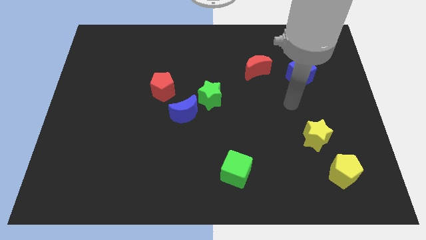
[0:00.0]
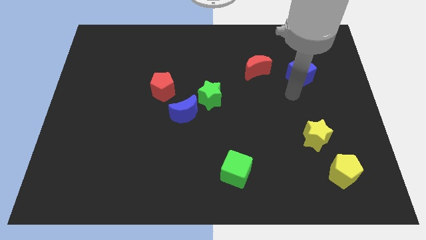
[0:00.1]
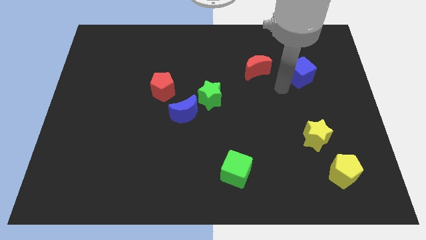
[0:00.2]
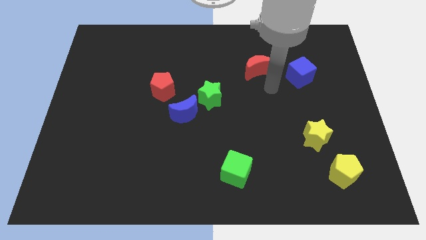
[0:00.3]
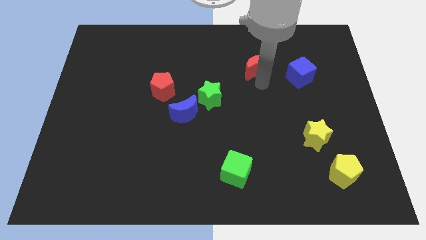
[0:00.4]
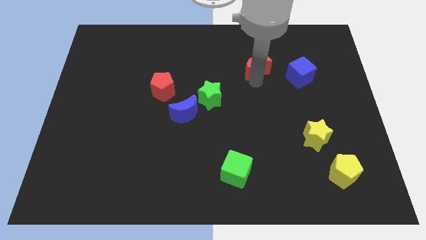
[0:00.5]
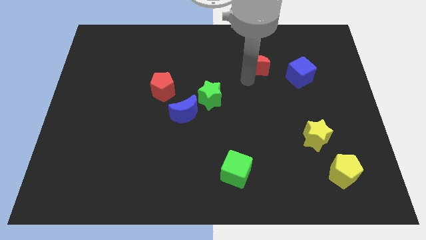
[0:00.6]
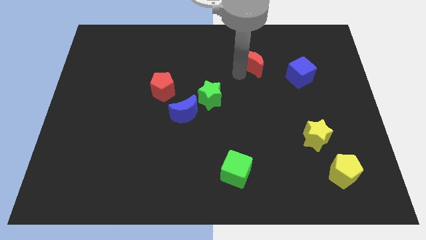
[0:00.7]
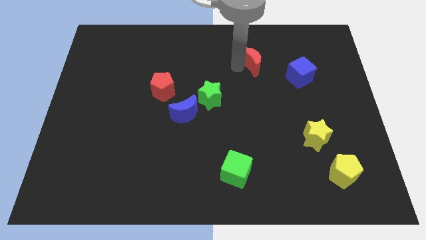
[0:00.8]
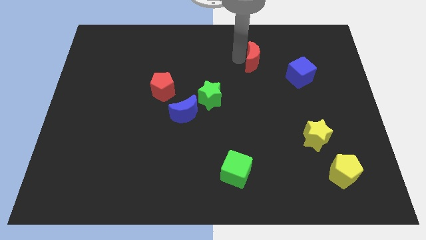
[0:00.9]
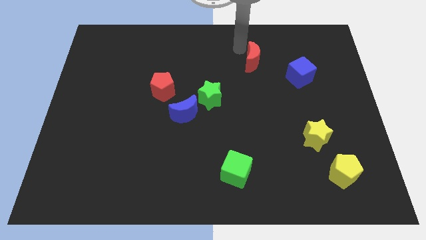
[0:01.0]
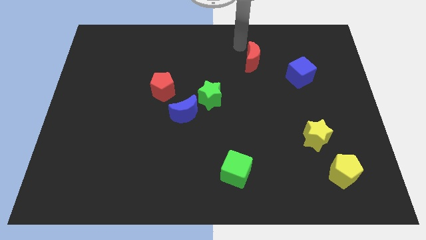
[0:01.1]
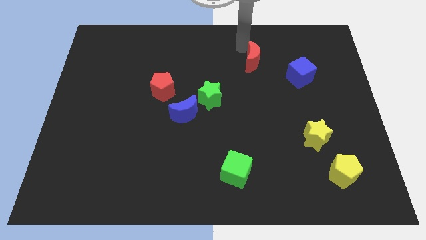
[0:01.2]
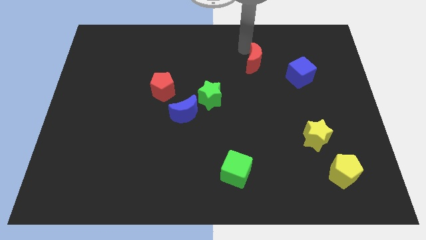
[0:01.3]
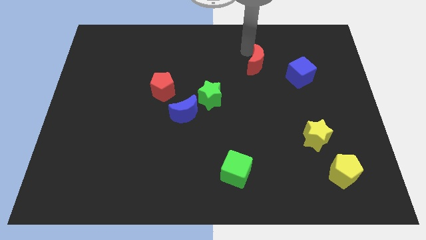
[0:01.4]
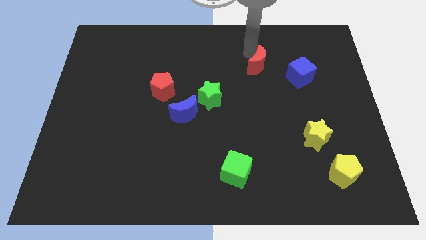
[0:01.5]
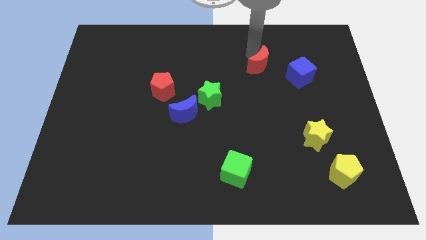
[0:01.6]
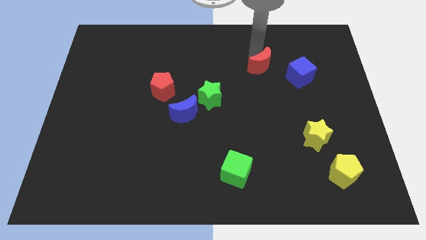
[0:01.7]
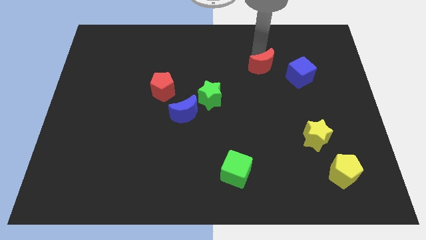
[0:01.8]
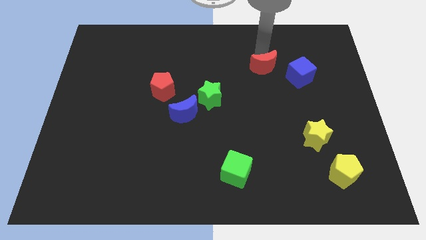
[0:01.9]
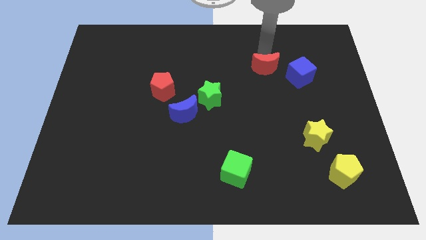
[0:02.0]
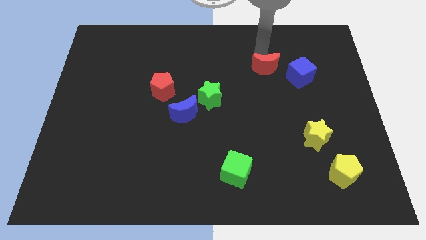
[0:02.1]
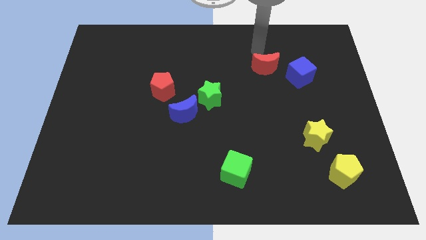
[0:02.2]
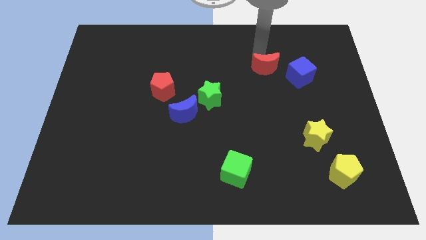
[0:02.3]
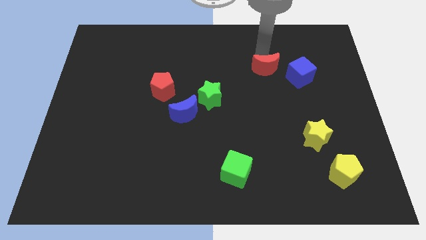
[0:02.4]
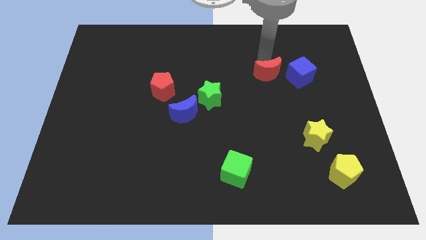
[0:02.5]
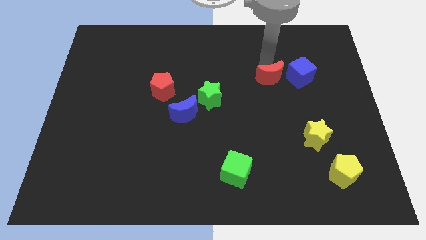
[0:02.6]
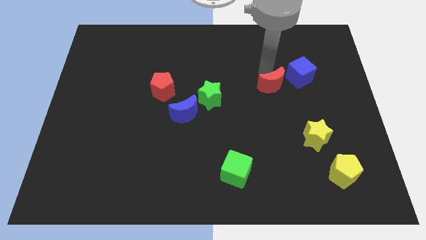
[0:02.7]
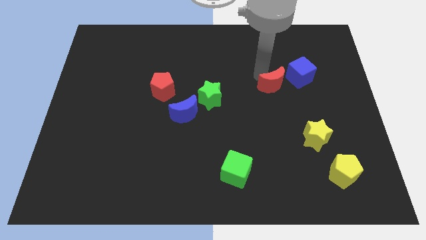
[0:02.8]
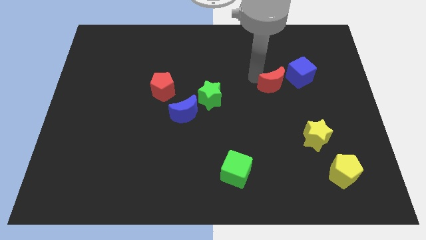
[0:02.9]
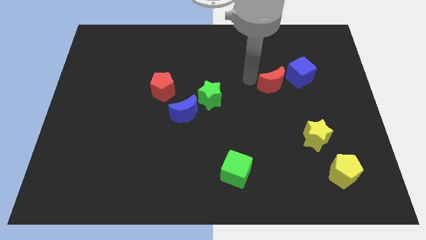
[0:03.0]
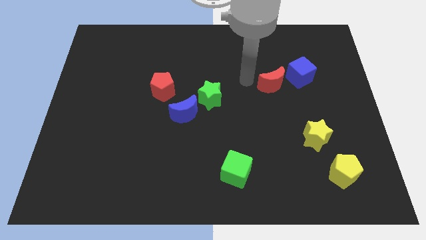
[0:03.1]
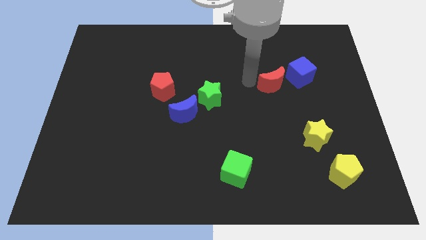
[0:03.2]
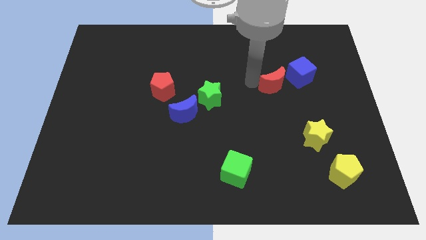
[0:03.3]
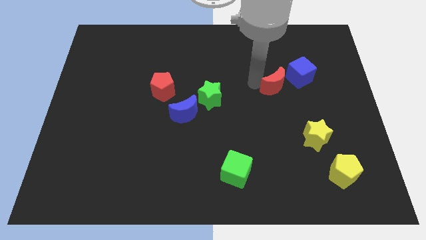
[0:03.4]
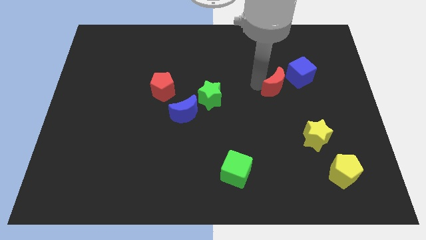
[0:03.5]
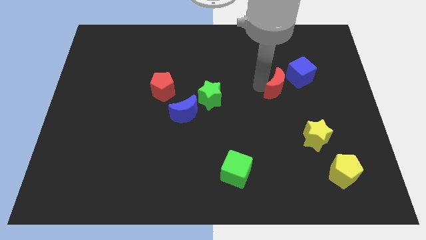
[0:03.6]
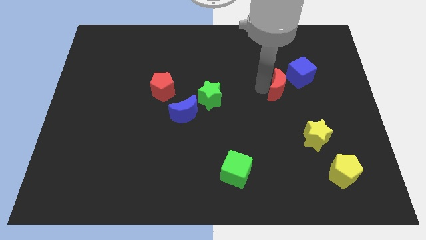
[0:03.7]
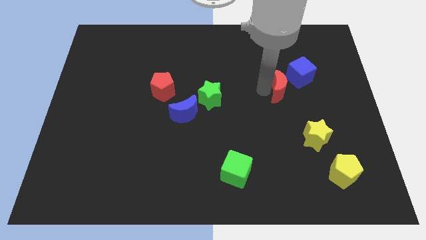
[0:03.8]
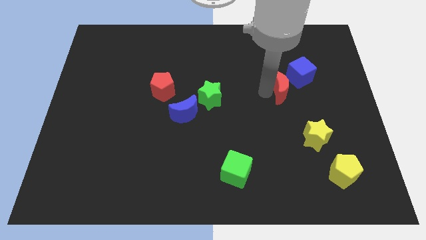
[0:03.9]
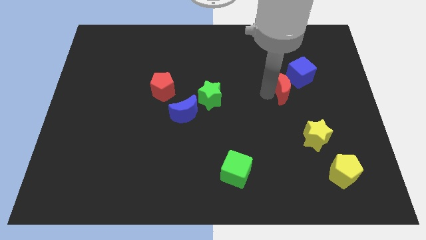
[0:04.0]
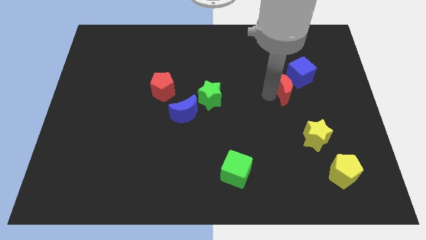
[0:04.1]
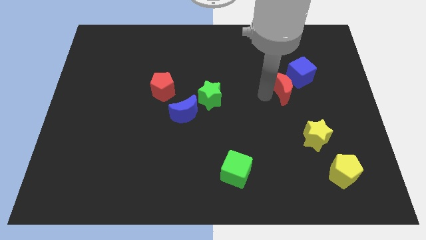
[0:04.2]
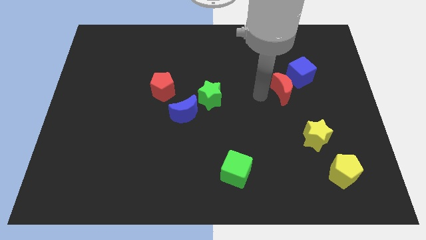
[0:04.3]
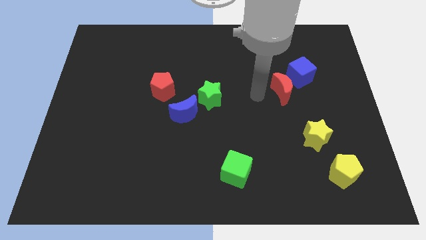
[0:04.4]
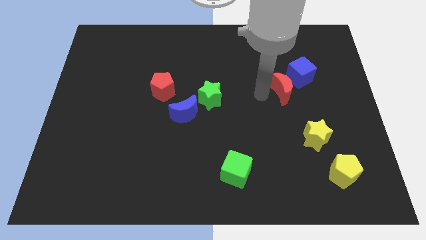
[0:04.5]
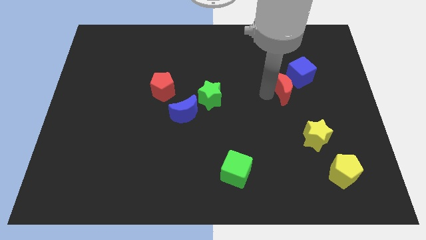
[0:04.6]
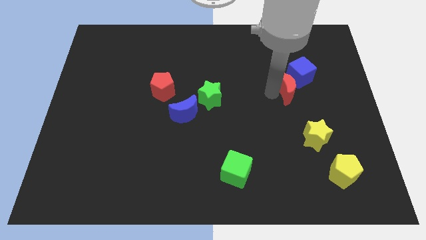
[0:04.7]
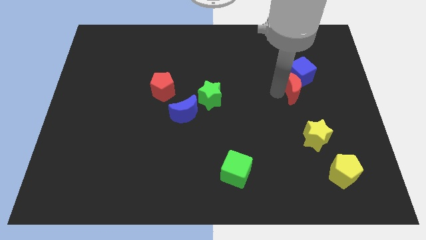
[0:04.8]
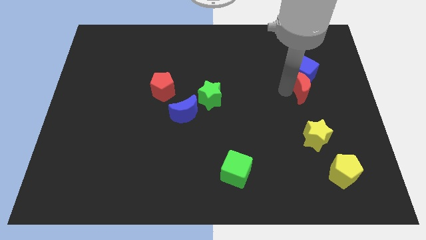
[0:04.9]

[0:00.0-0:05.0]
put the red moon to the bottom right side of the blue cube

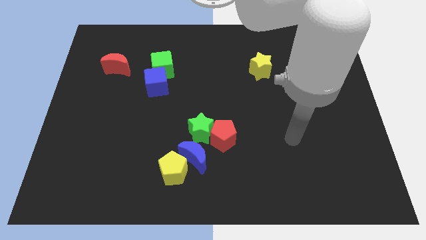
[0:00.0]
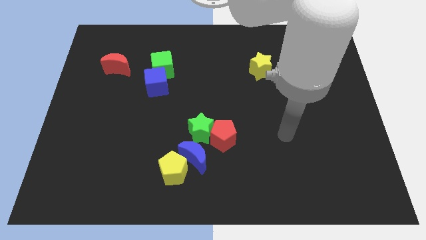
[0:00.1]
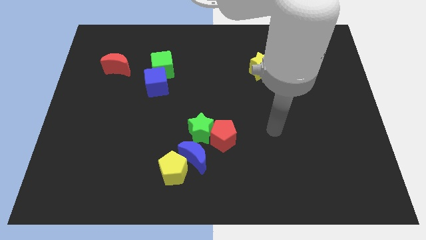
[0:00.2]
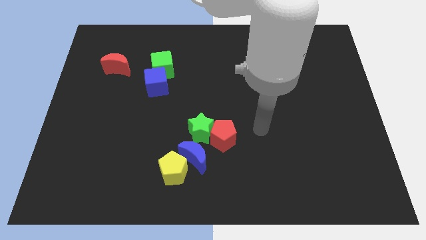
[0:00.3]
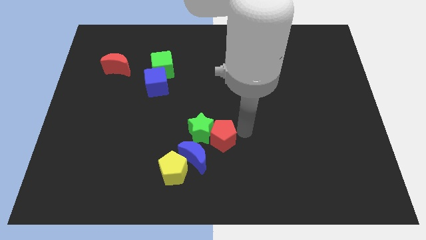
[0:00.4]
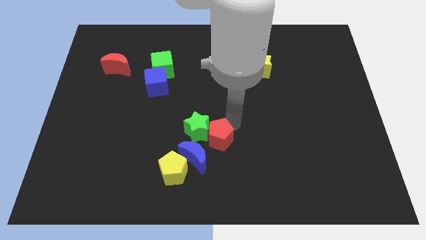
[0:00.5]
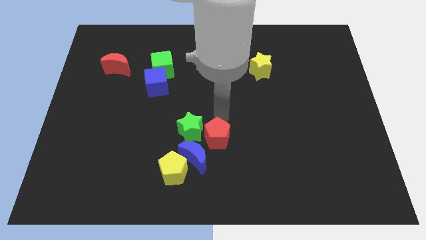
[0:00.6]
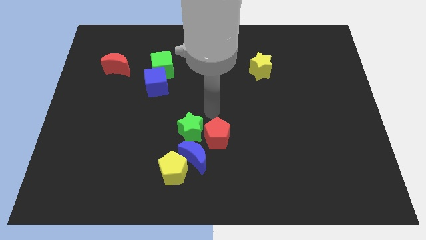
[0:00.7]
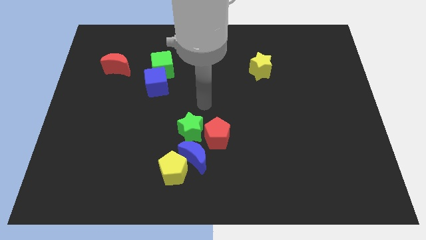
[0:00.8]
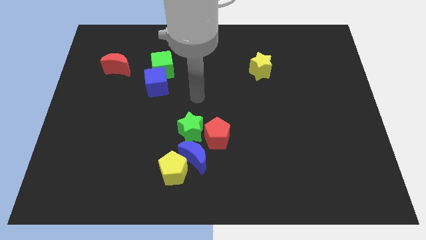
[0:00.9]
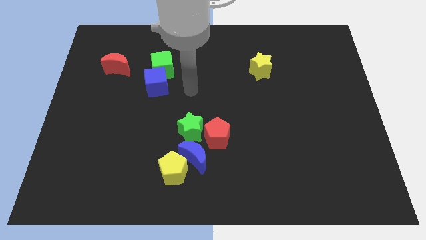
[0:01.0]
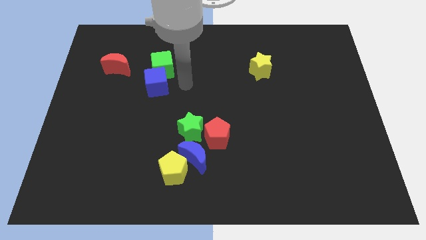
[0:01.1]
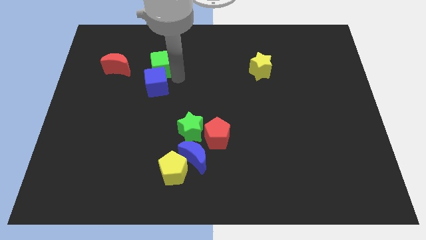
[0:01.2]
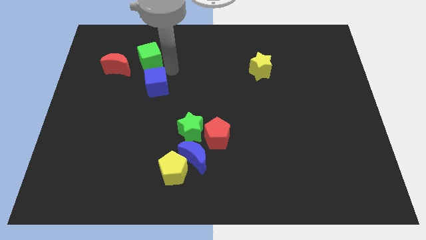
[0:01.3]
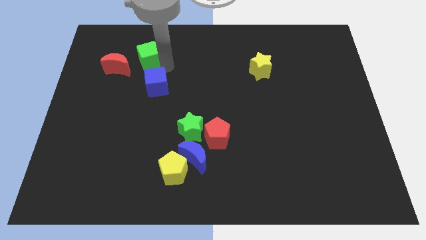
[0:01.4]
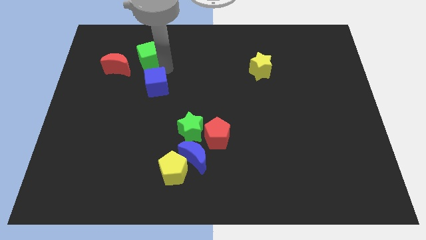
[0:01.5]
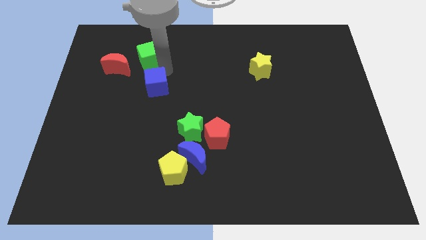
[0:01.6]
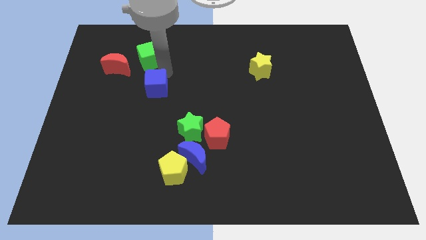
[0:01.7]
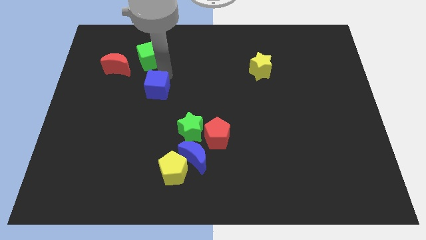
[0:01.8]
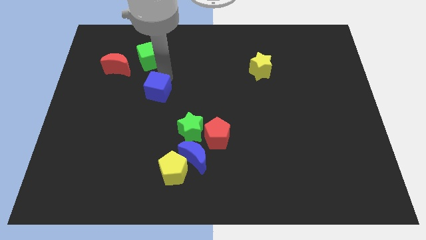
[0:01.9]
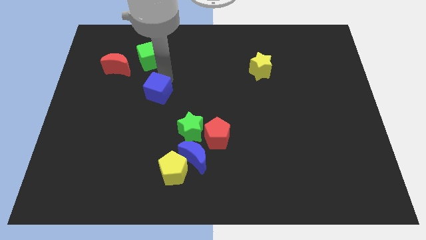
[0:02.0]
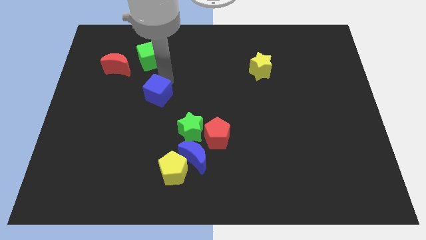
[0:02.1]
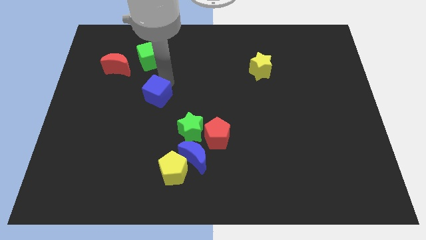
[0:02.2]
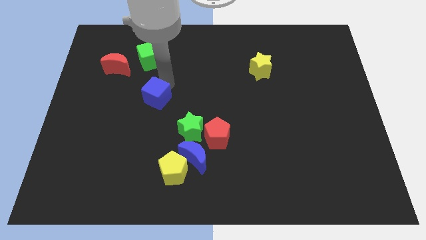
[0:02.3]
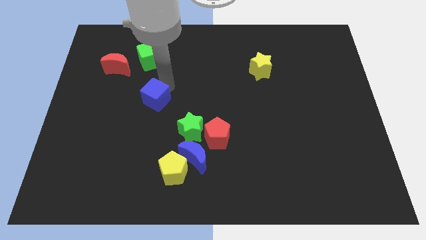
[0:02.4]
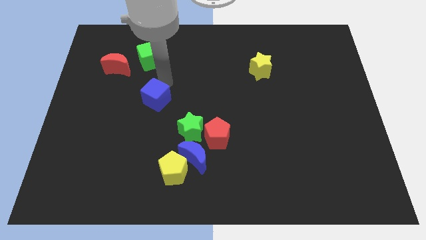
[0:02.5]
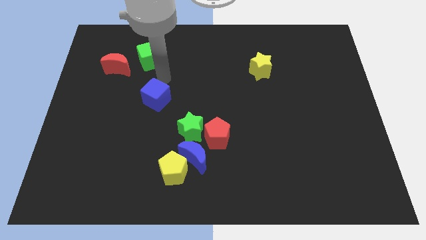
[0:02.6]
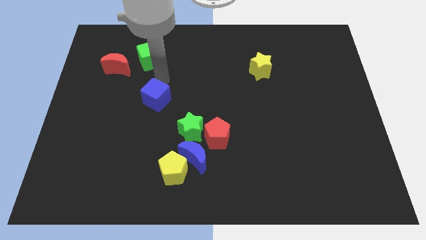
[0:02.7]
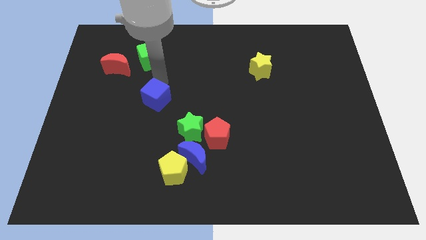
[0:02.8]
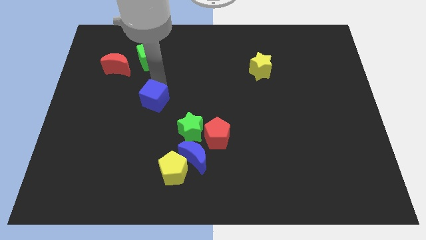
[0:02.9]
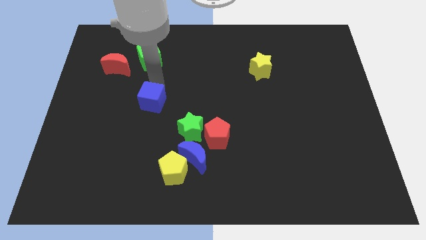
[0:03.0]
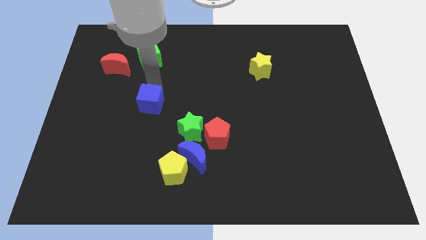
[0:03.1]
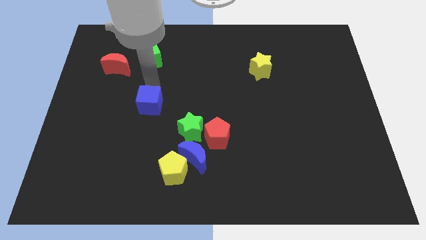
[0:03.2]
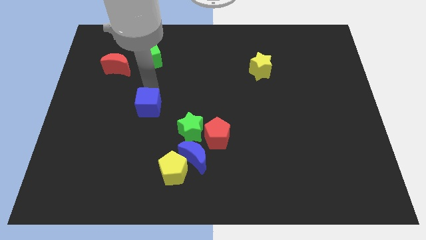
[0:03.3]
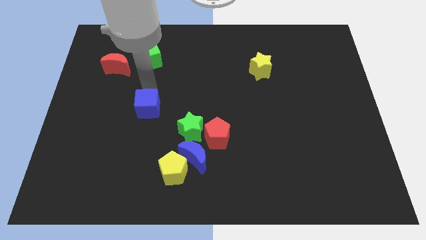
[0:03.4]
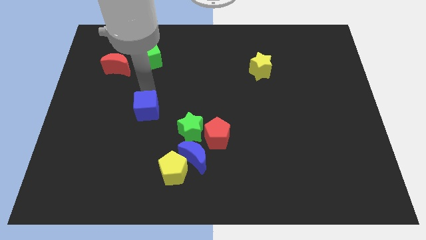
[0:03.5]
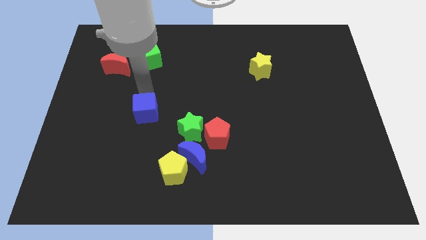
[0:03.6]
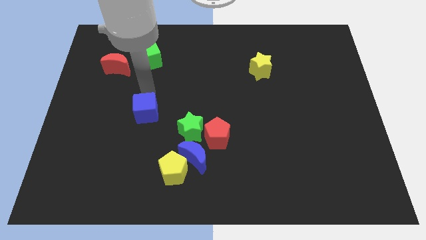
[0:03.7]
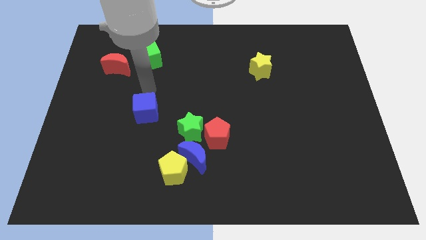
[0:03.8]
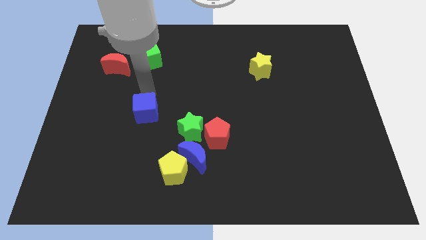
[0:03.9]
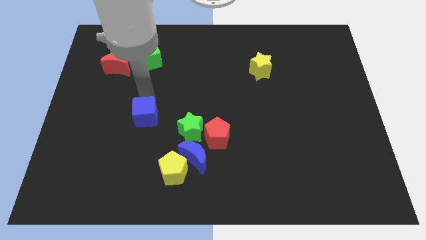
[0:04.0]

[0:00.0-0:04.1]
slide the blue cube left of the green star
